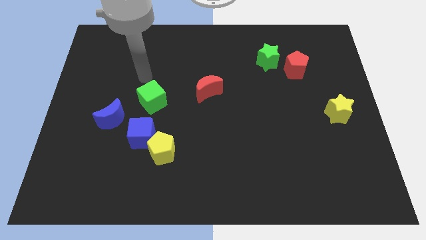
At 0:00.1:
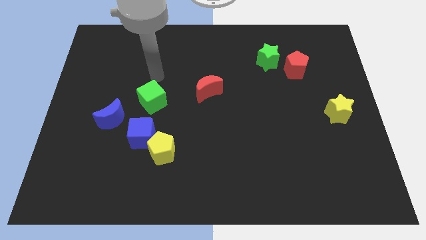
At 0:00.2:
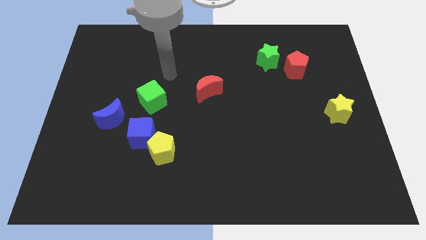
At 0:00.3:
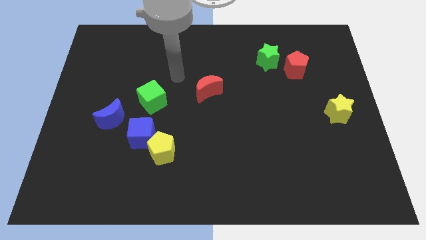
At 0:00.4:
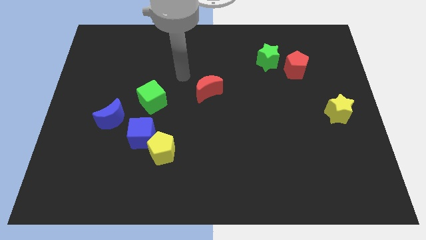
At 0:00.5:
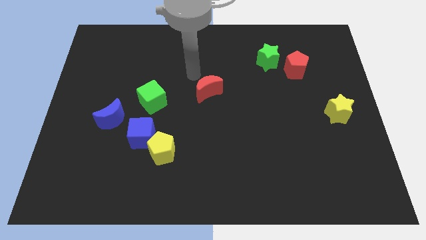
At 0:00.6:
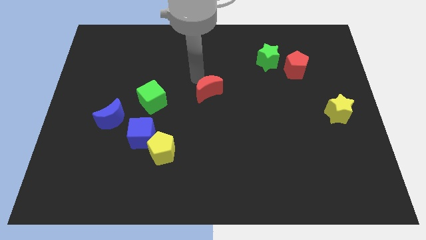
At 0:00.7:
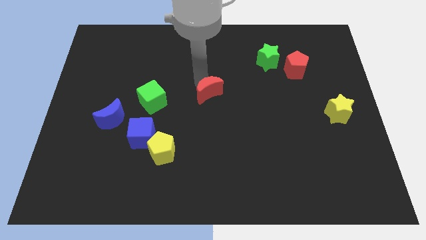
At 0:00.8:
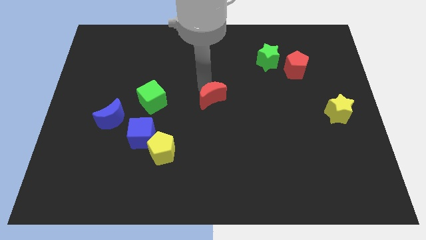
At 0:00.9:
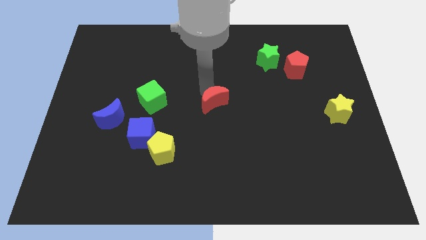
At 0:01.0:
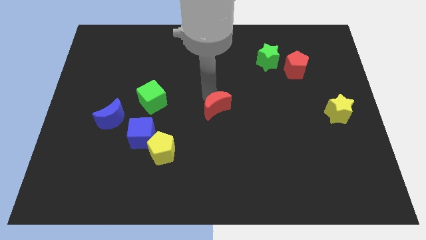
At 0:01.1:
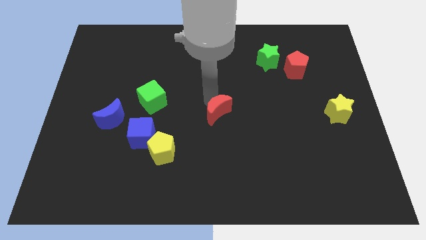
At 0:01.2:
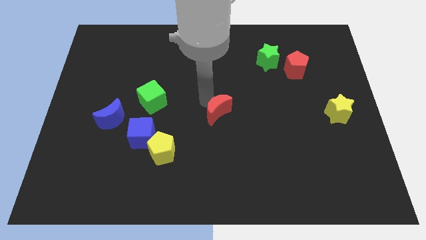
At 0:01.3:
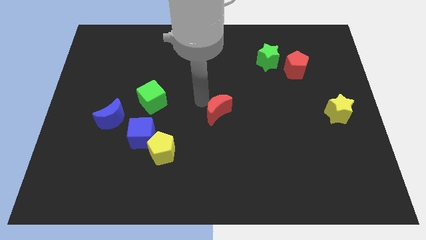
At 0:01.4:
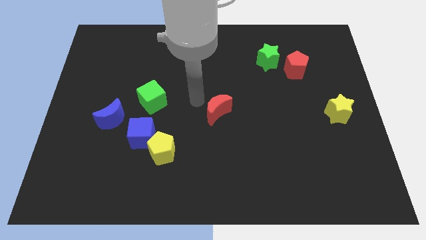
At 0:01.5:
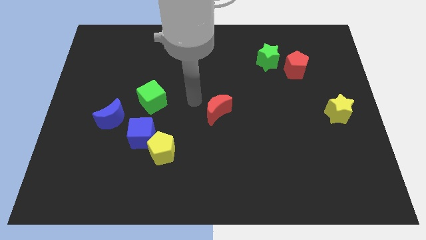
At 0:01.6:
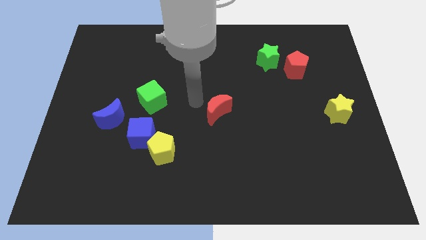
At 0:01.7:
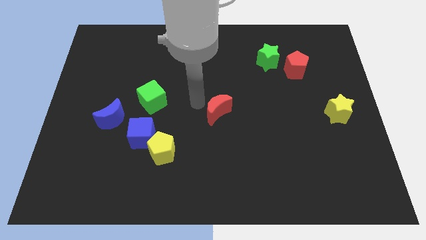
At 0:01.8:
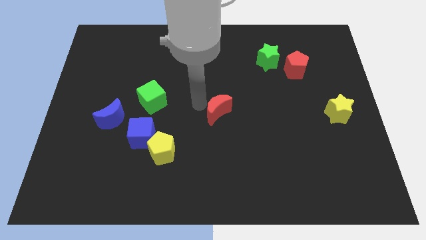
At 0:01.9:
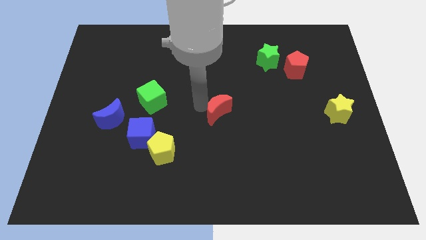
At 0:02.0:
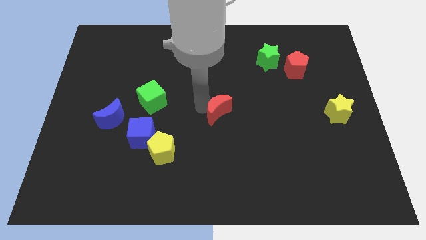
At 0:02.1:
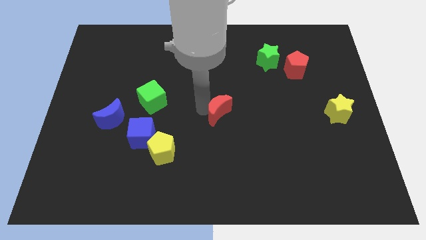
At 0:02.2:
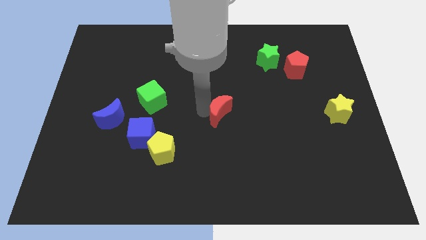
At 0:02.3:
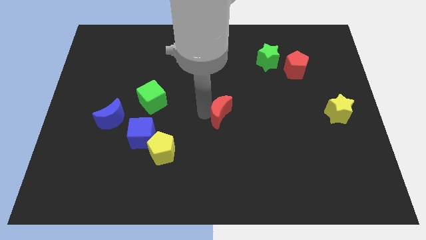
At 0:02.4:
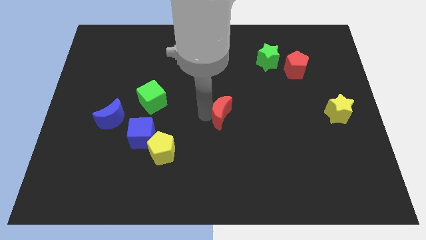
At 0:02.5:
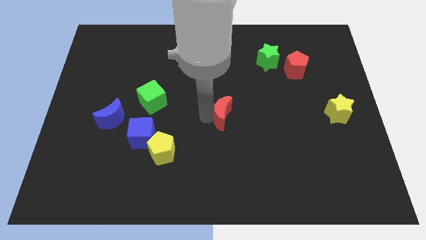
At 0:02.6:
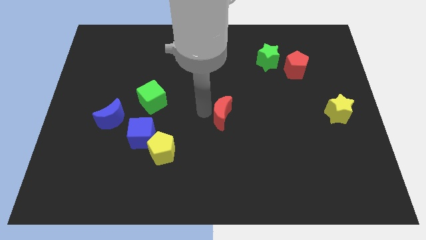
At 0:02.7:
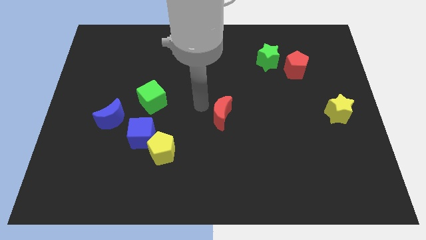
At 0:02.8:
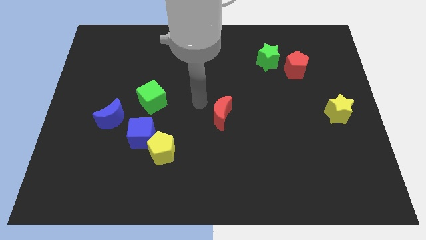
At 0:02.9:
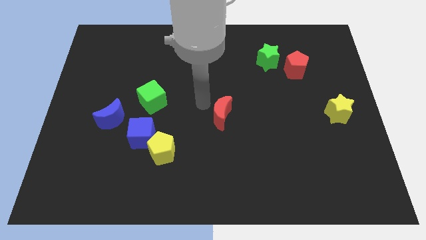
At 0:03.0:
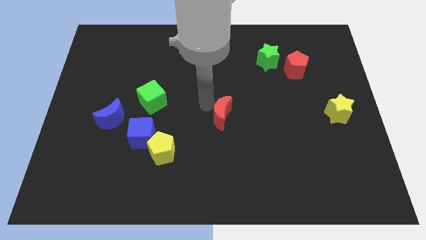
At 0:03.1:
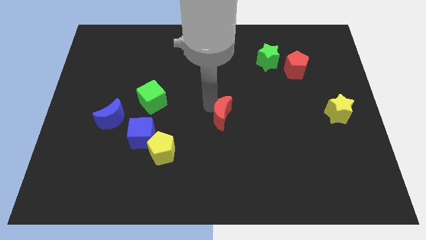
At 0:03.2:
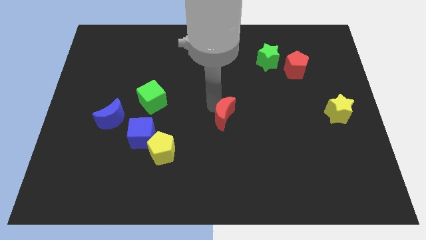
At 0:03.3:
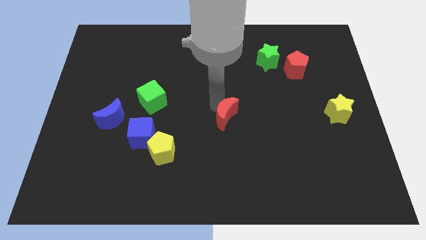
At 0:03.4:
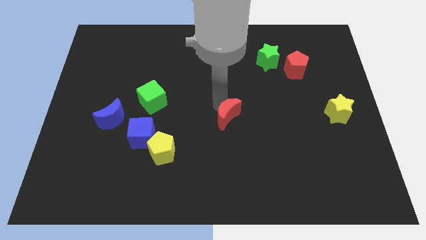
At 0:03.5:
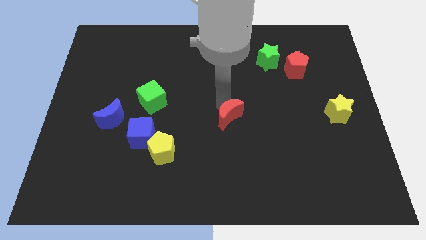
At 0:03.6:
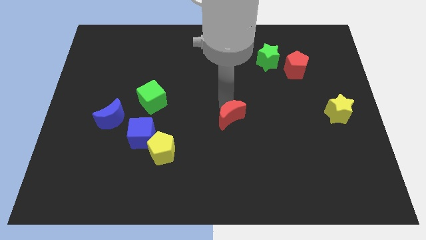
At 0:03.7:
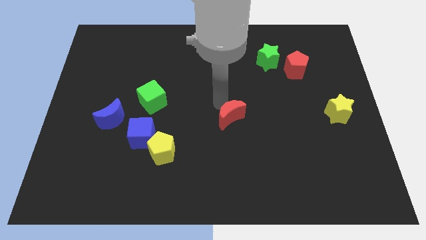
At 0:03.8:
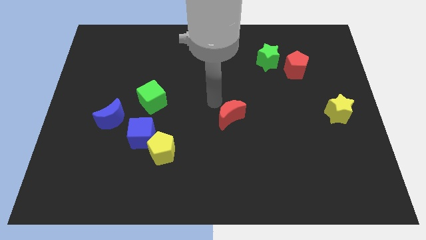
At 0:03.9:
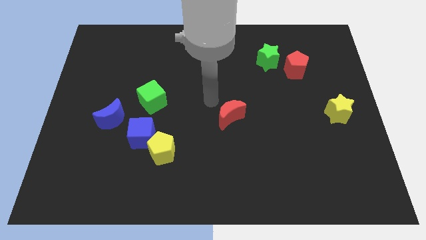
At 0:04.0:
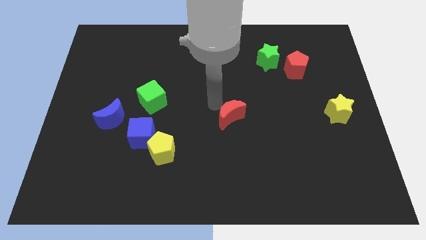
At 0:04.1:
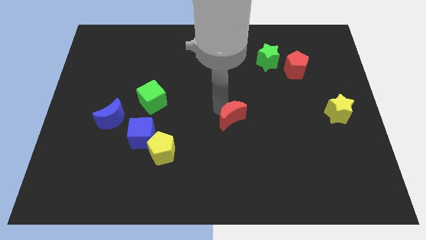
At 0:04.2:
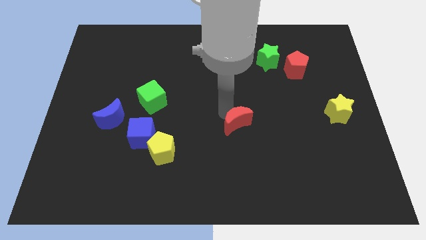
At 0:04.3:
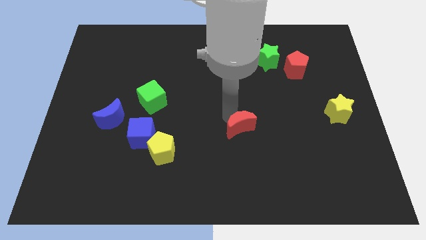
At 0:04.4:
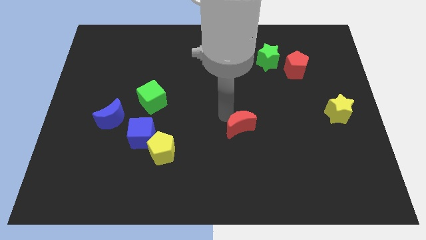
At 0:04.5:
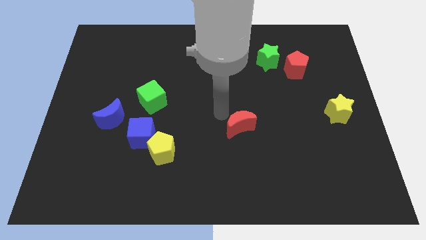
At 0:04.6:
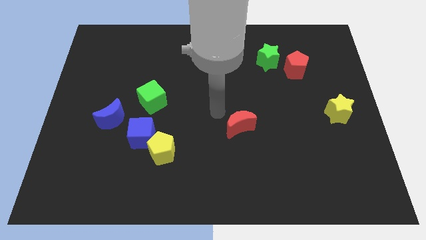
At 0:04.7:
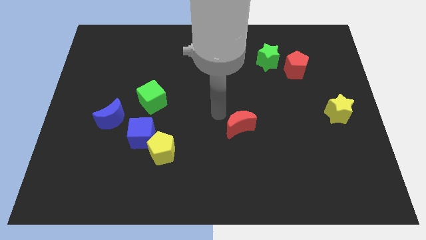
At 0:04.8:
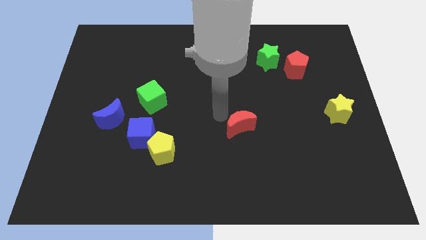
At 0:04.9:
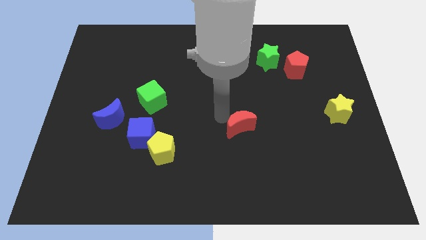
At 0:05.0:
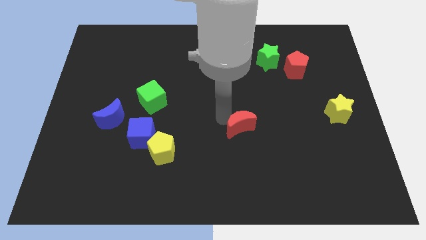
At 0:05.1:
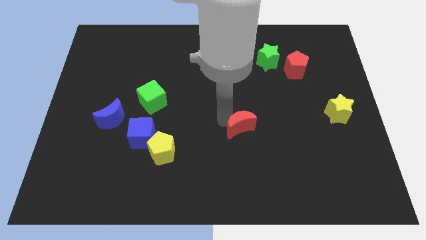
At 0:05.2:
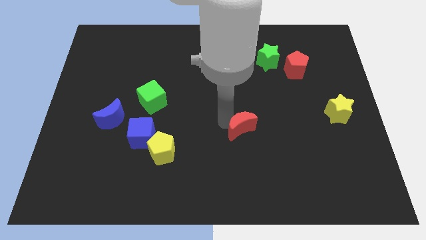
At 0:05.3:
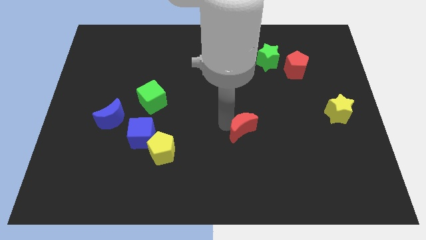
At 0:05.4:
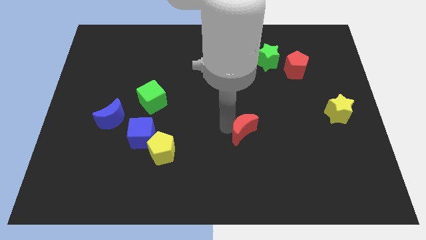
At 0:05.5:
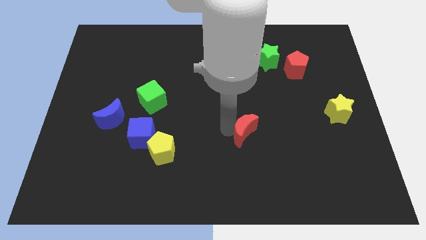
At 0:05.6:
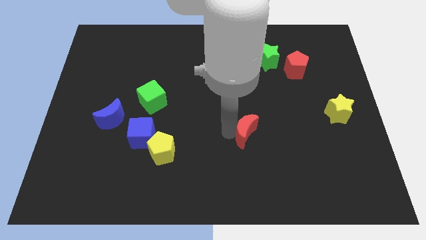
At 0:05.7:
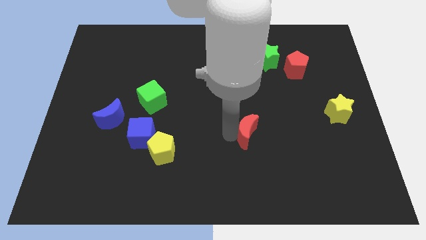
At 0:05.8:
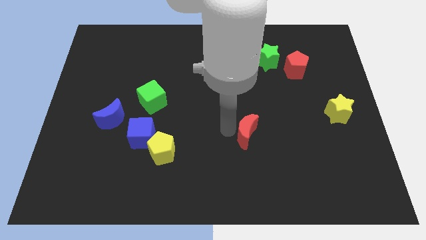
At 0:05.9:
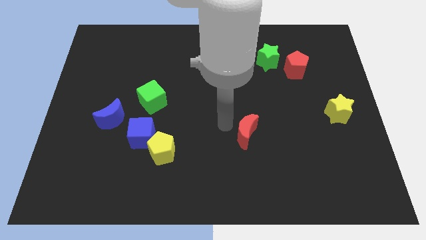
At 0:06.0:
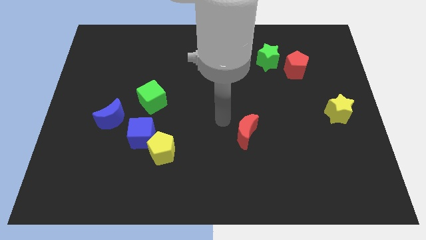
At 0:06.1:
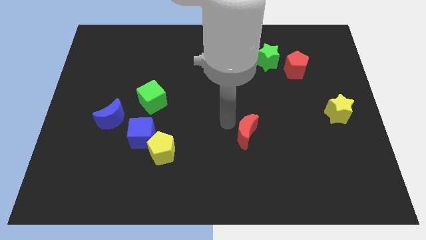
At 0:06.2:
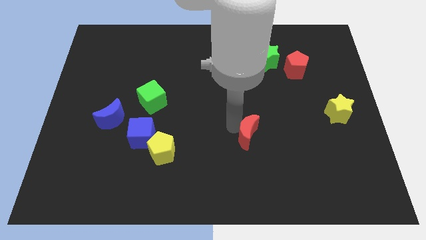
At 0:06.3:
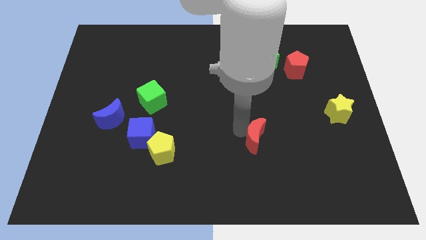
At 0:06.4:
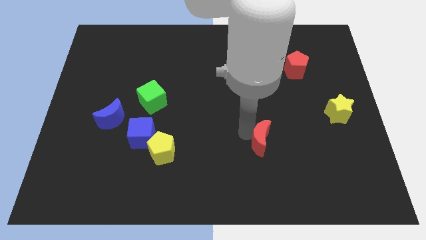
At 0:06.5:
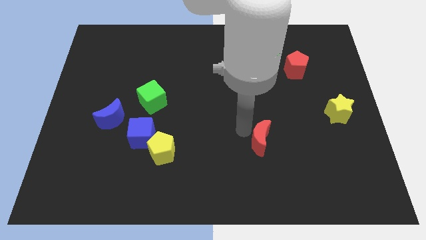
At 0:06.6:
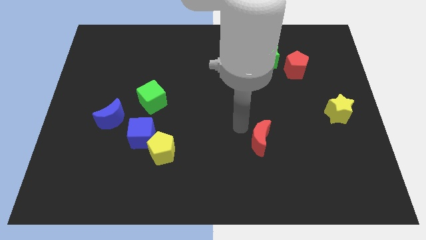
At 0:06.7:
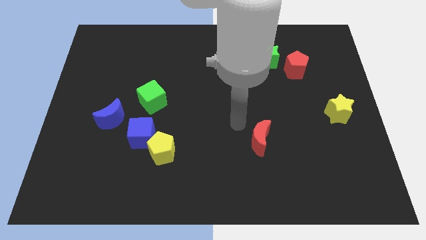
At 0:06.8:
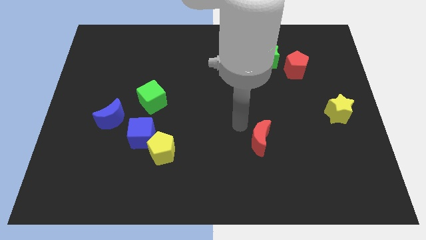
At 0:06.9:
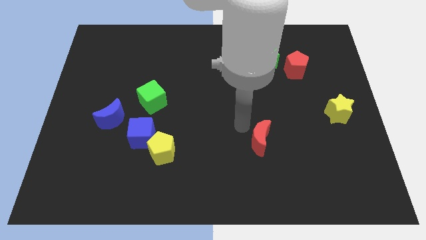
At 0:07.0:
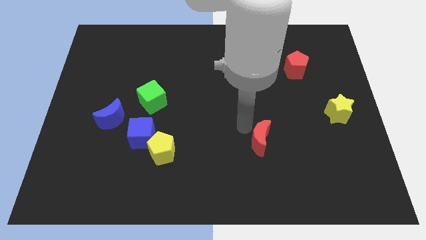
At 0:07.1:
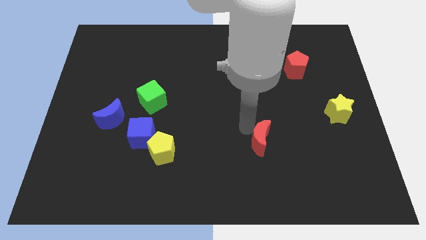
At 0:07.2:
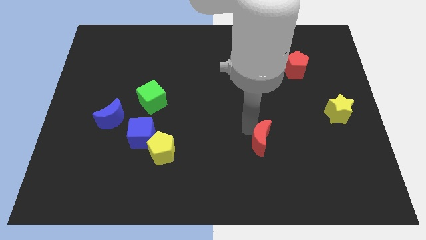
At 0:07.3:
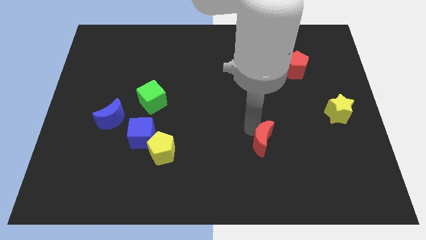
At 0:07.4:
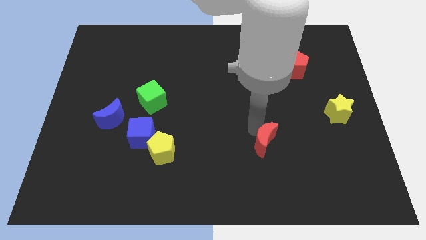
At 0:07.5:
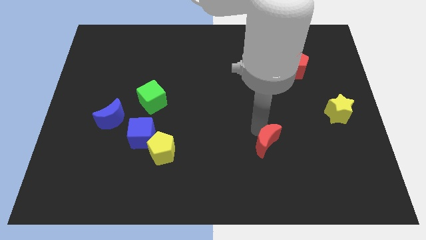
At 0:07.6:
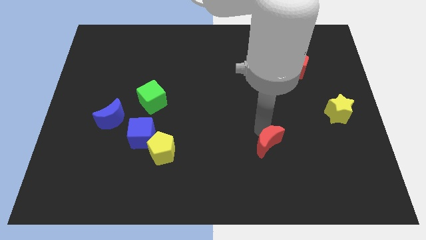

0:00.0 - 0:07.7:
push the red moon downwards and to the right diagonally

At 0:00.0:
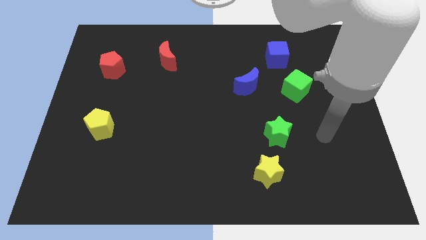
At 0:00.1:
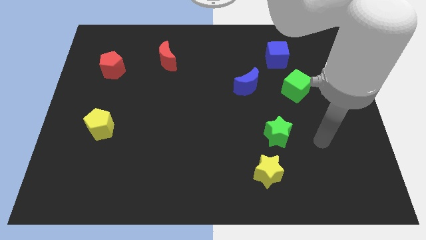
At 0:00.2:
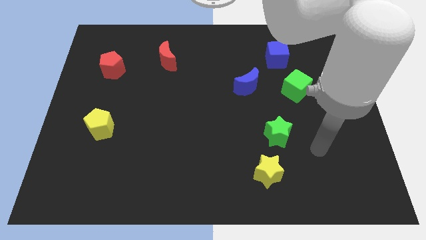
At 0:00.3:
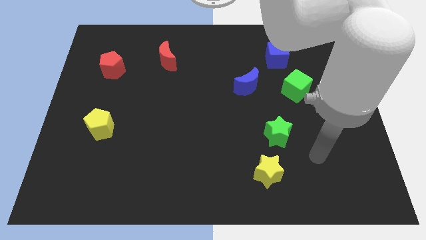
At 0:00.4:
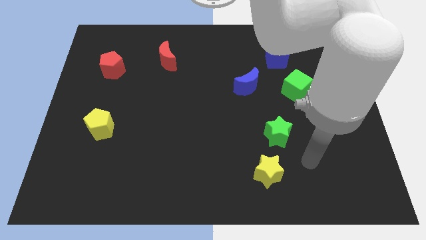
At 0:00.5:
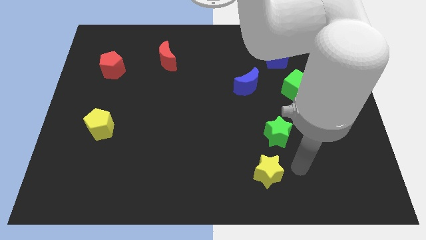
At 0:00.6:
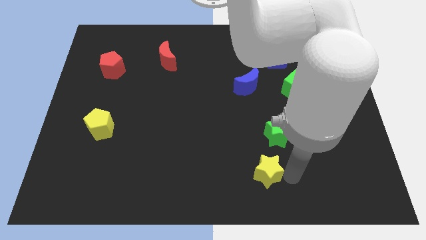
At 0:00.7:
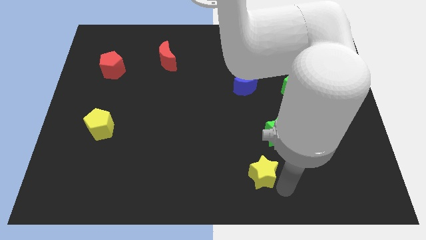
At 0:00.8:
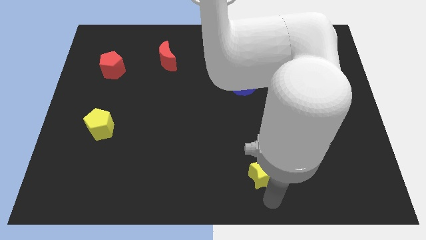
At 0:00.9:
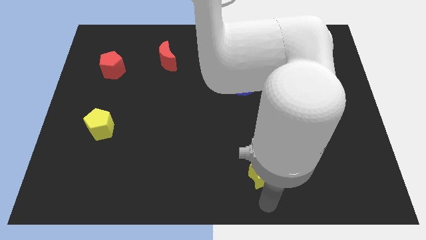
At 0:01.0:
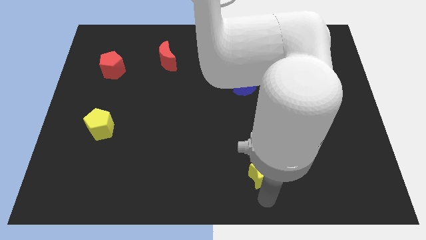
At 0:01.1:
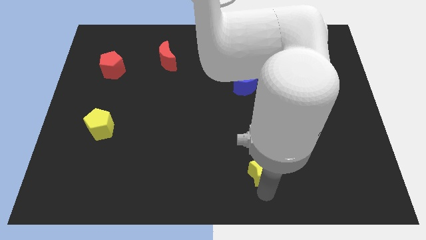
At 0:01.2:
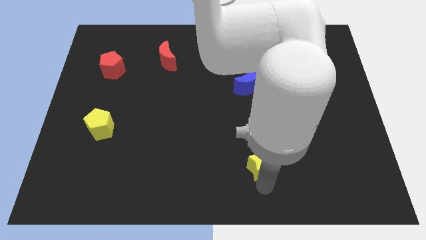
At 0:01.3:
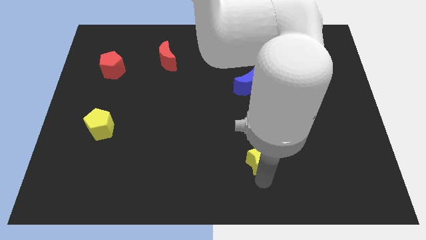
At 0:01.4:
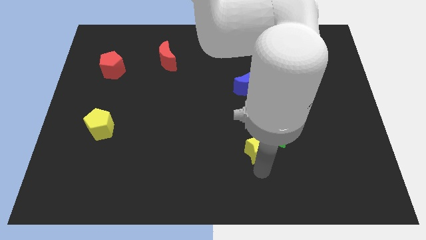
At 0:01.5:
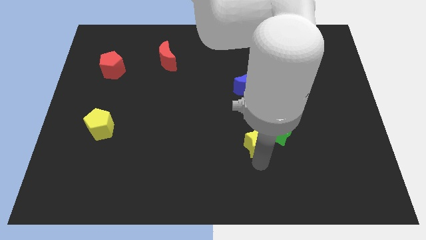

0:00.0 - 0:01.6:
slightly move the yellow star upwards
